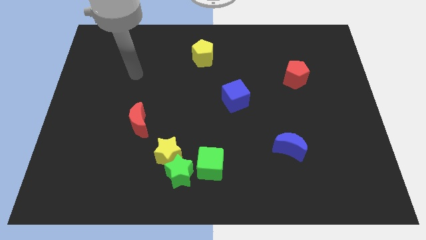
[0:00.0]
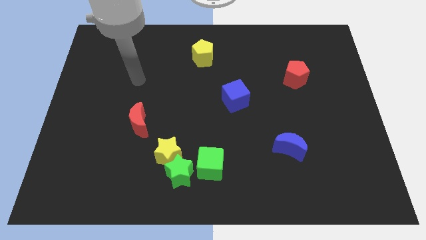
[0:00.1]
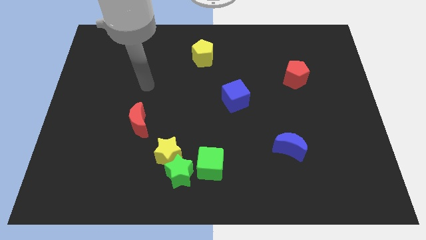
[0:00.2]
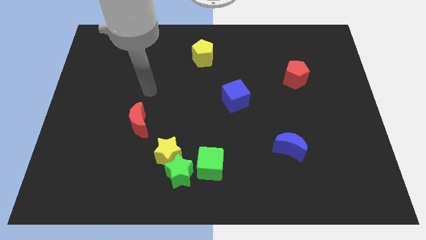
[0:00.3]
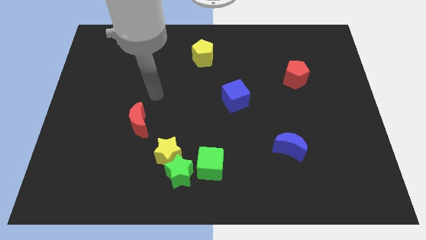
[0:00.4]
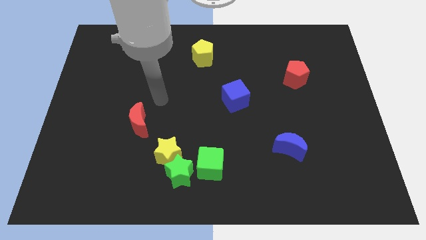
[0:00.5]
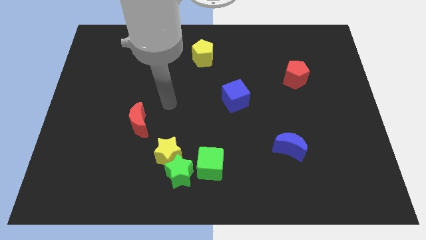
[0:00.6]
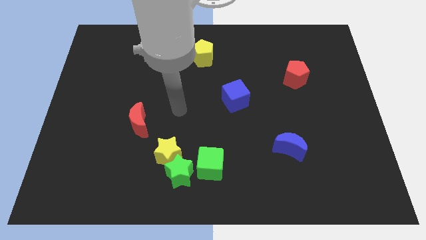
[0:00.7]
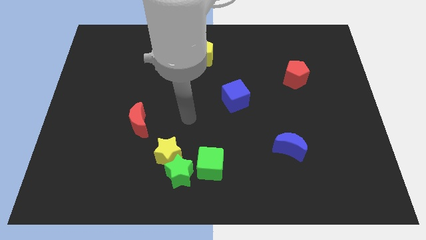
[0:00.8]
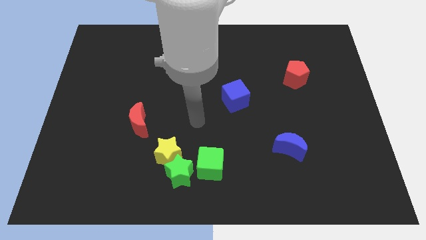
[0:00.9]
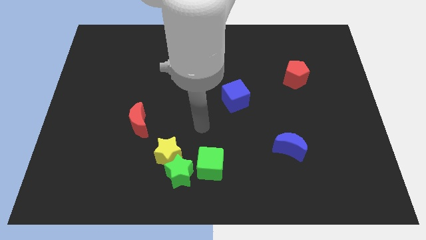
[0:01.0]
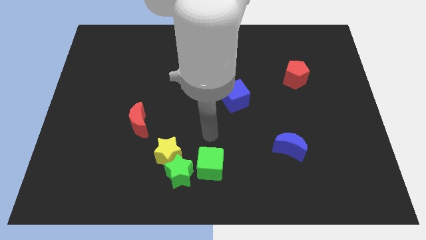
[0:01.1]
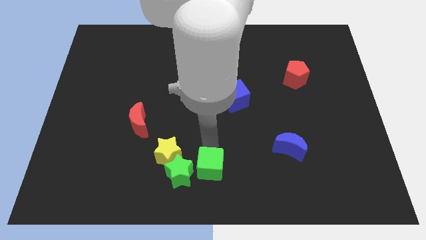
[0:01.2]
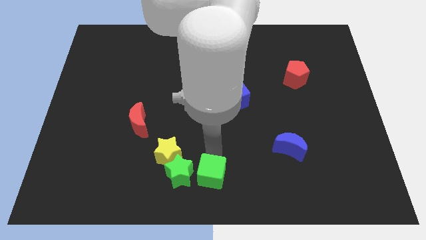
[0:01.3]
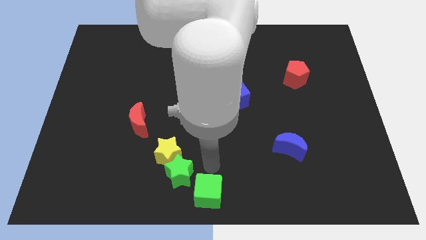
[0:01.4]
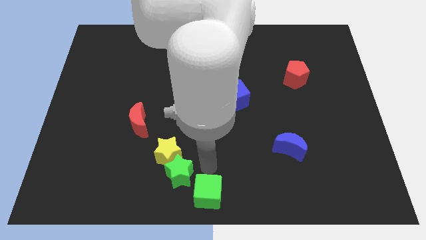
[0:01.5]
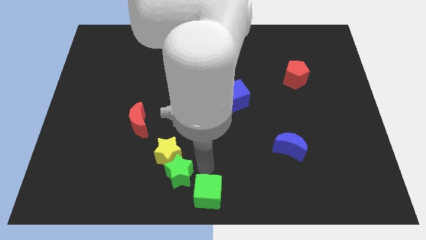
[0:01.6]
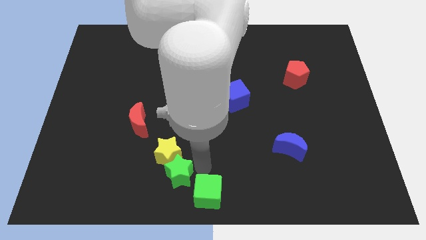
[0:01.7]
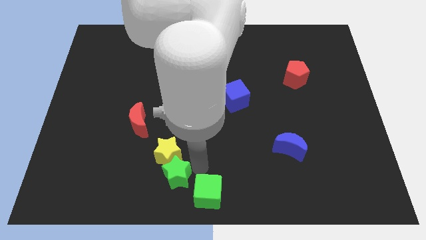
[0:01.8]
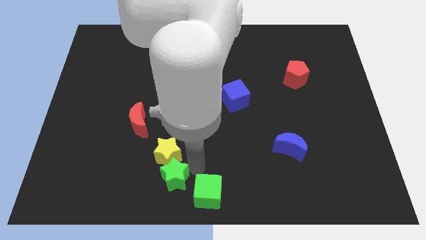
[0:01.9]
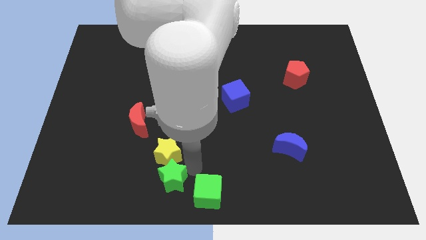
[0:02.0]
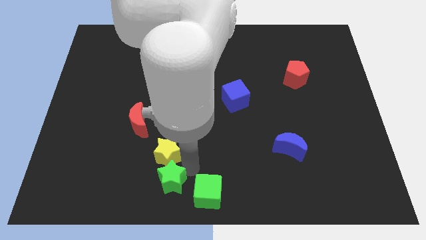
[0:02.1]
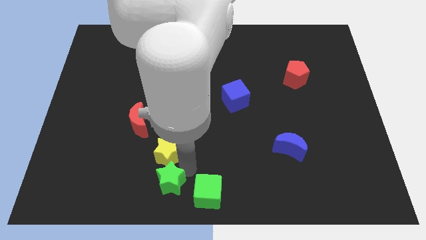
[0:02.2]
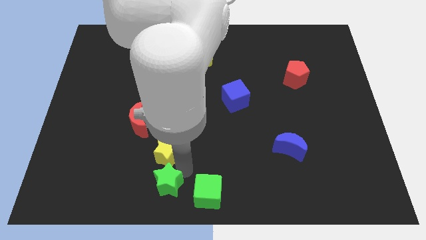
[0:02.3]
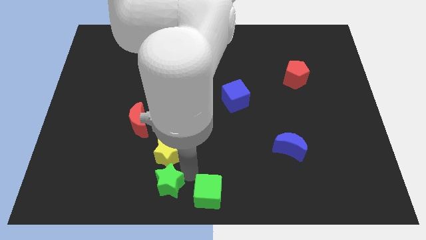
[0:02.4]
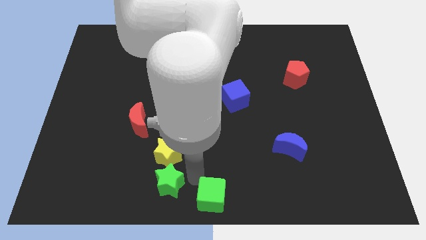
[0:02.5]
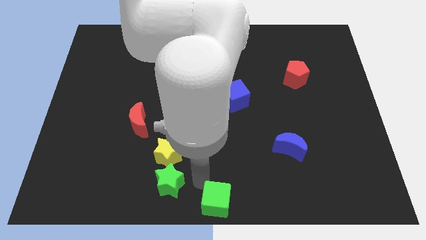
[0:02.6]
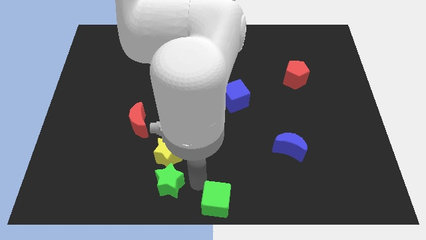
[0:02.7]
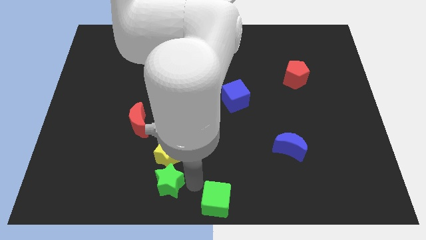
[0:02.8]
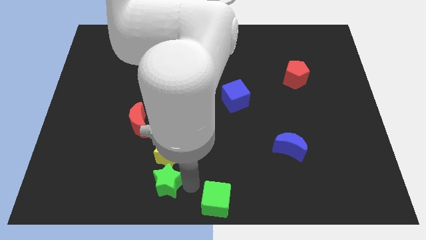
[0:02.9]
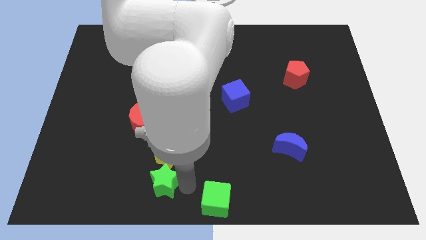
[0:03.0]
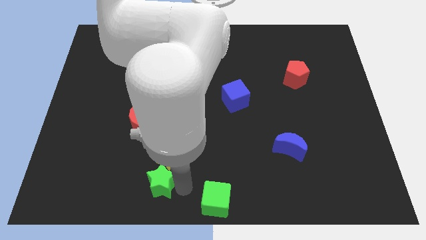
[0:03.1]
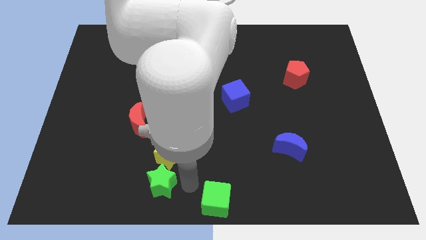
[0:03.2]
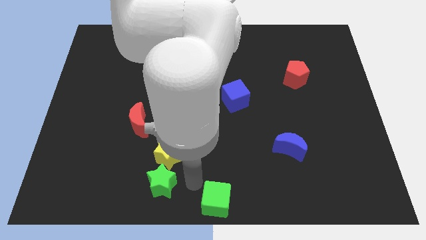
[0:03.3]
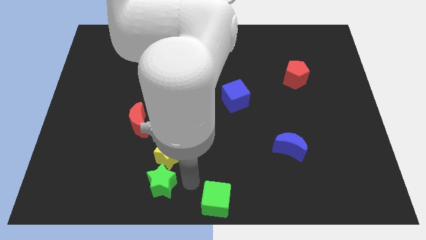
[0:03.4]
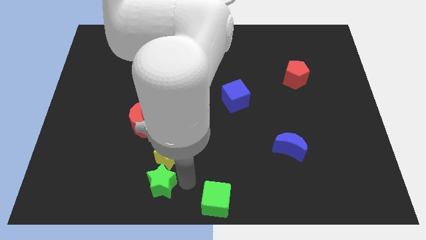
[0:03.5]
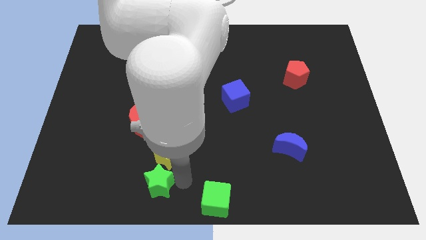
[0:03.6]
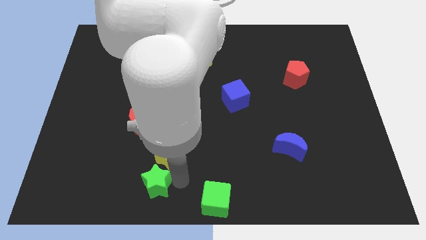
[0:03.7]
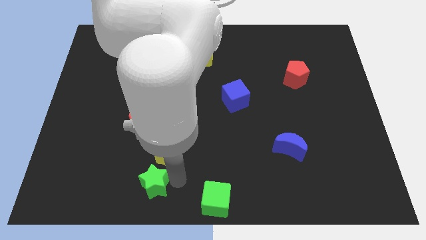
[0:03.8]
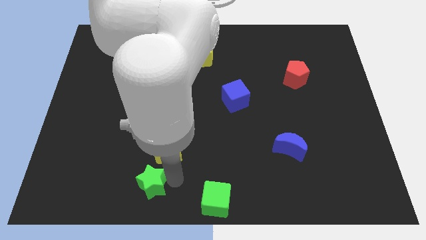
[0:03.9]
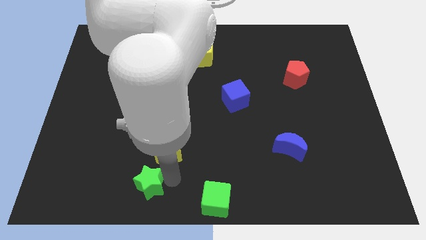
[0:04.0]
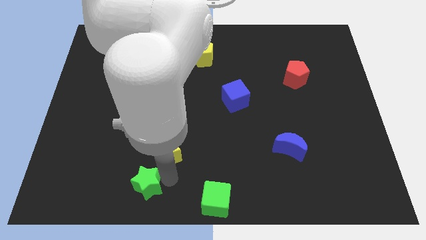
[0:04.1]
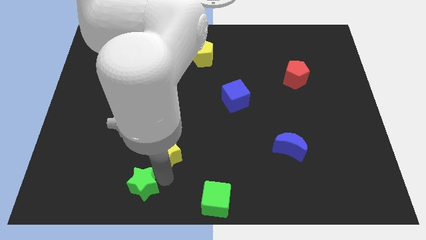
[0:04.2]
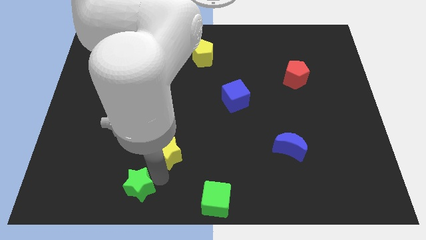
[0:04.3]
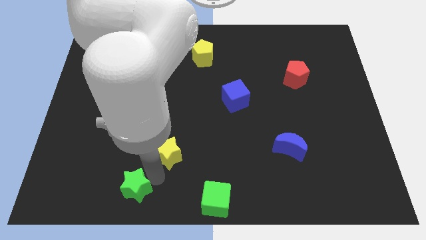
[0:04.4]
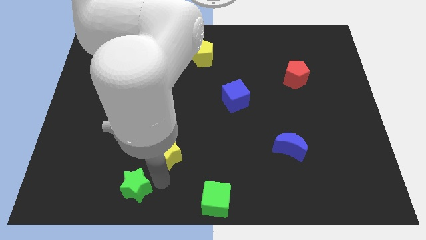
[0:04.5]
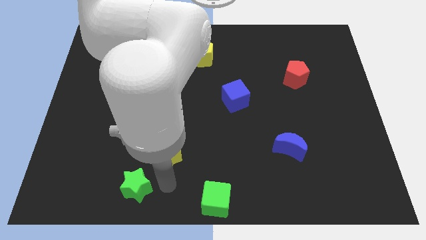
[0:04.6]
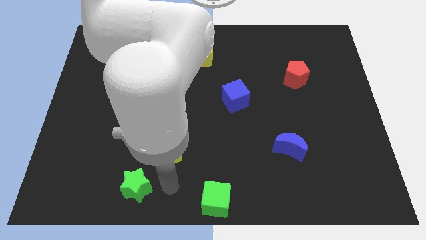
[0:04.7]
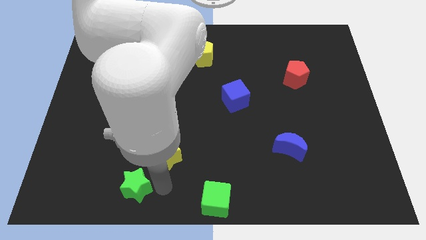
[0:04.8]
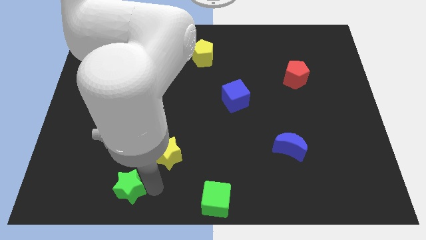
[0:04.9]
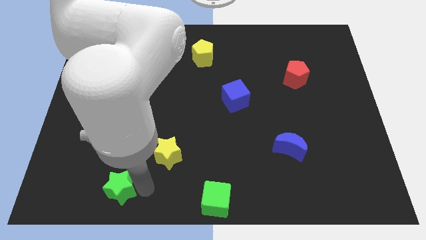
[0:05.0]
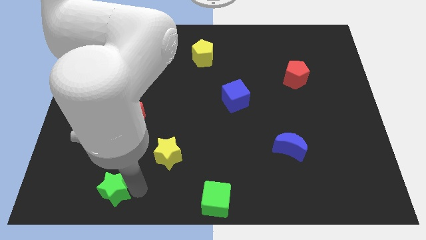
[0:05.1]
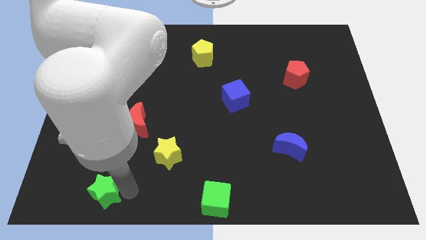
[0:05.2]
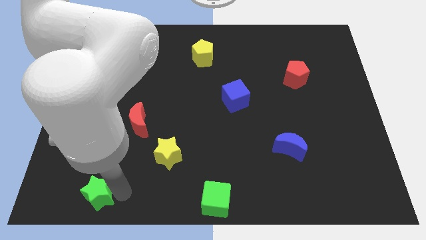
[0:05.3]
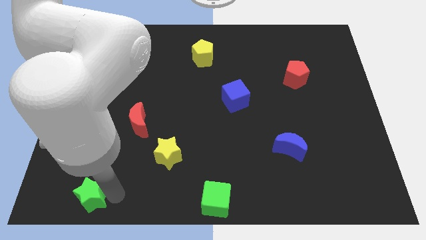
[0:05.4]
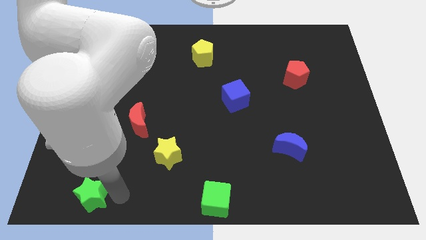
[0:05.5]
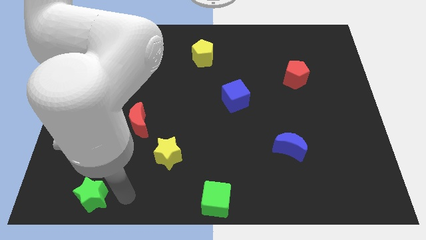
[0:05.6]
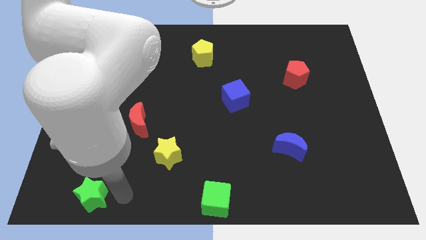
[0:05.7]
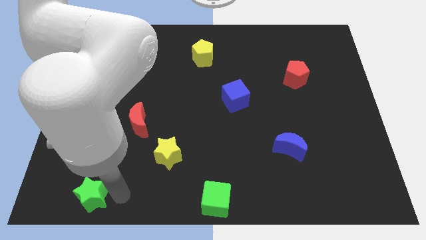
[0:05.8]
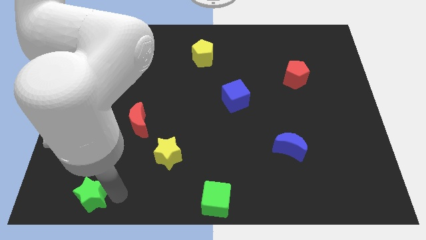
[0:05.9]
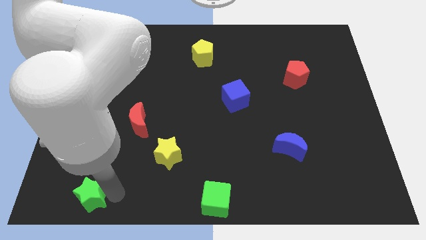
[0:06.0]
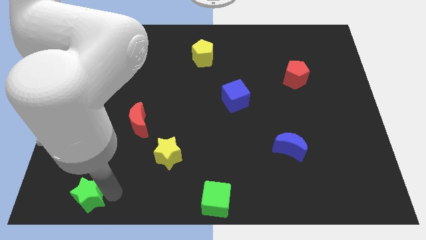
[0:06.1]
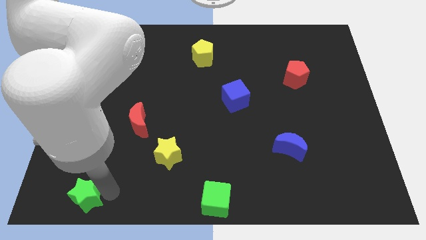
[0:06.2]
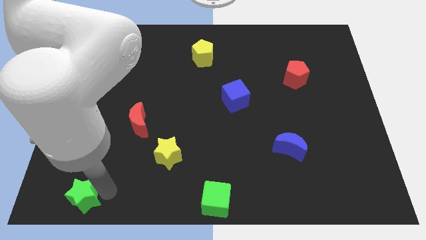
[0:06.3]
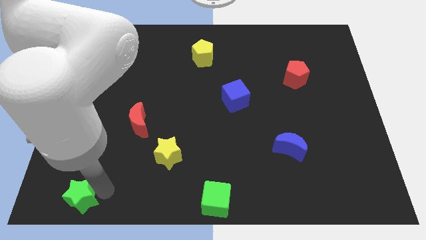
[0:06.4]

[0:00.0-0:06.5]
slide the green star to the lower left corner
